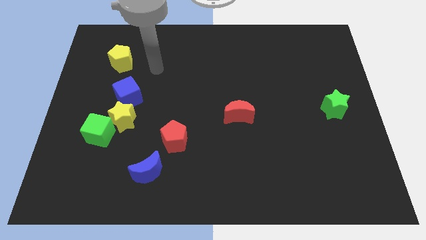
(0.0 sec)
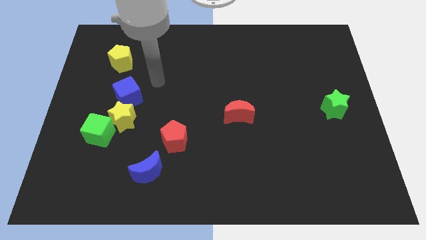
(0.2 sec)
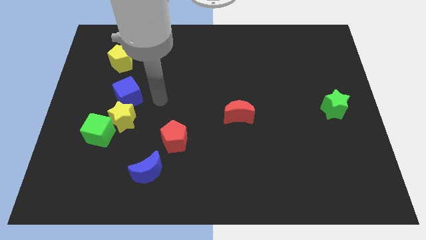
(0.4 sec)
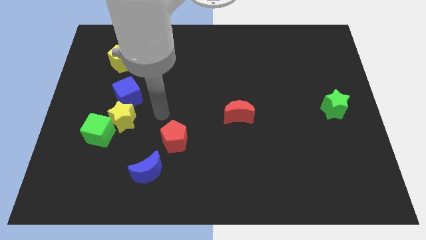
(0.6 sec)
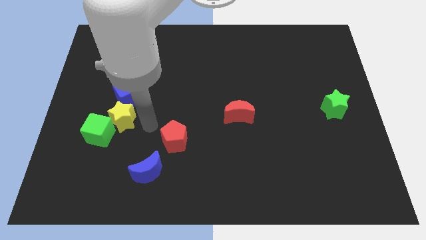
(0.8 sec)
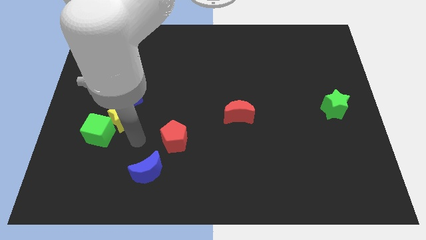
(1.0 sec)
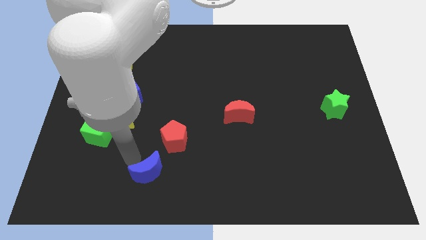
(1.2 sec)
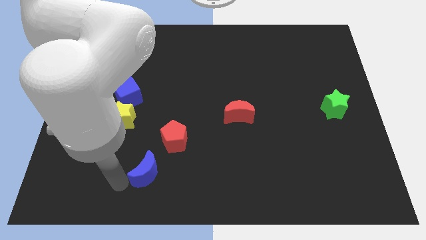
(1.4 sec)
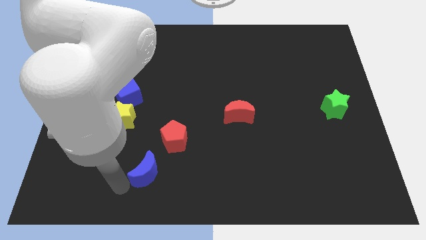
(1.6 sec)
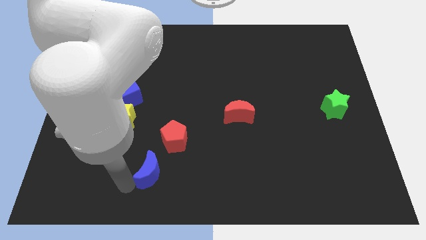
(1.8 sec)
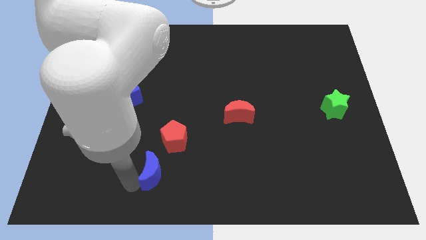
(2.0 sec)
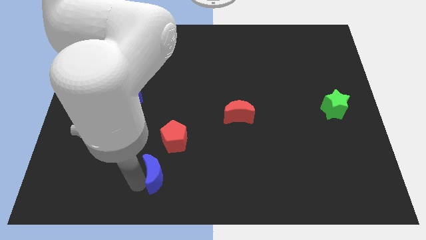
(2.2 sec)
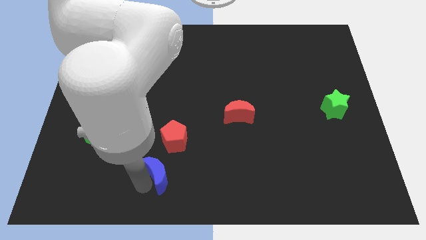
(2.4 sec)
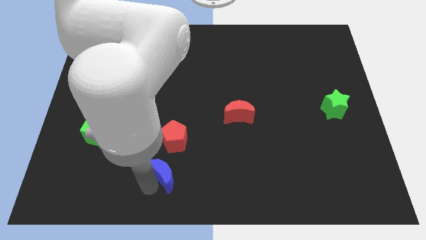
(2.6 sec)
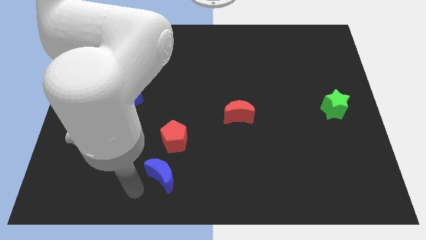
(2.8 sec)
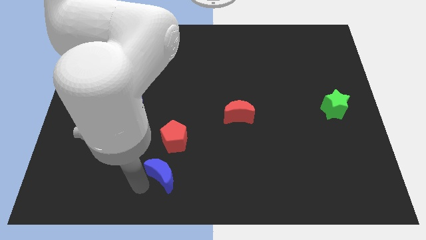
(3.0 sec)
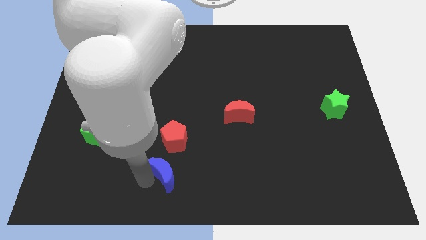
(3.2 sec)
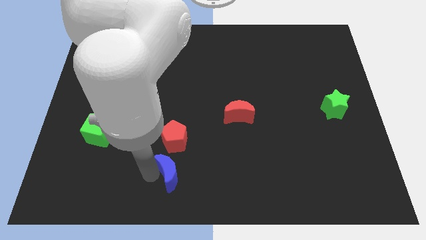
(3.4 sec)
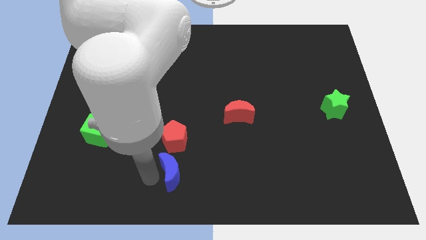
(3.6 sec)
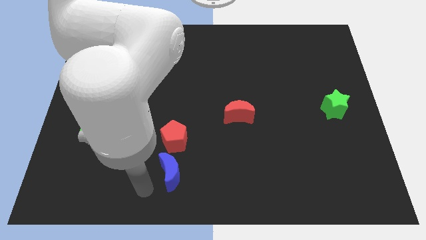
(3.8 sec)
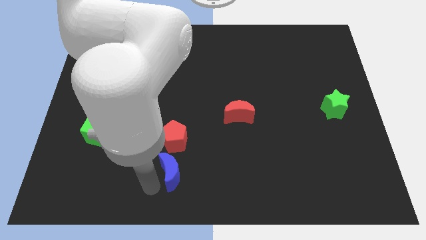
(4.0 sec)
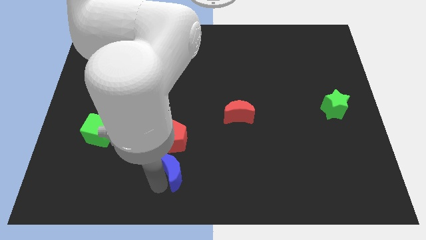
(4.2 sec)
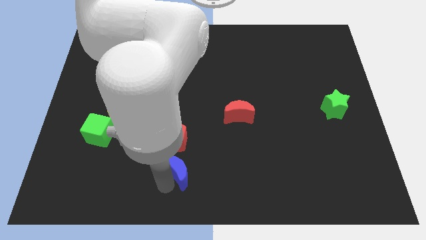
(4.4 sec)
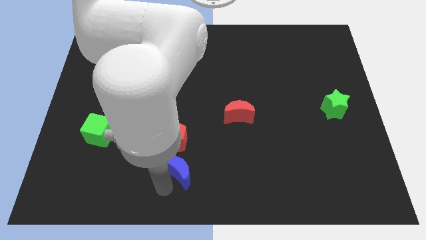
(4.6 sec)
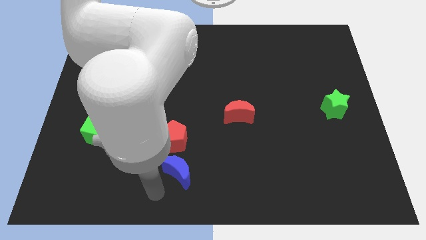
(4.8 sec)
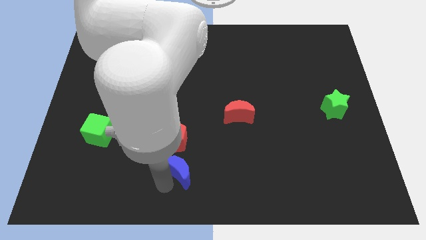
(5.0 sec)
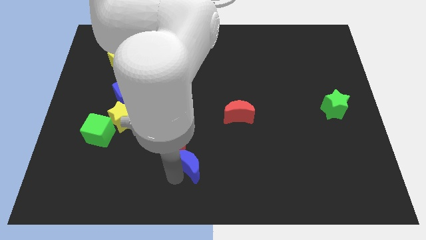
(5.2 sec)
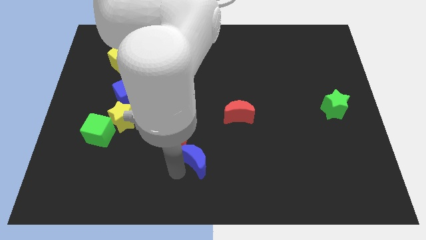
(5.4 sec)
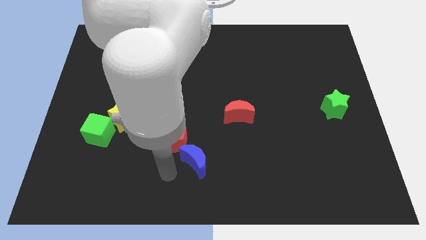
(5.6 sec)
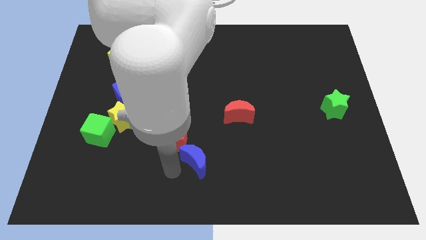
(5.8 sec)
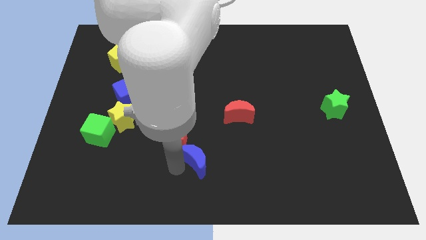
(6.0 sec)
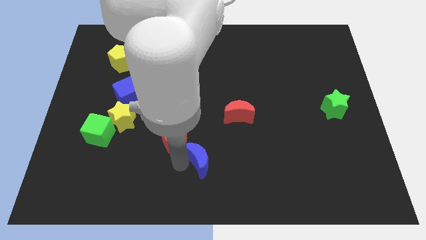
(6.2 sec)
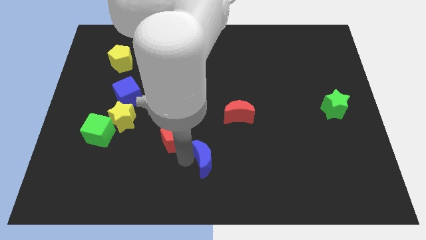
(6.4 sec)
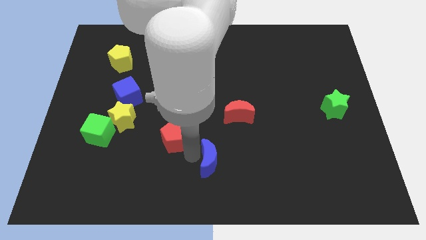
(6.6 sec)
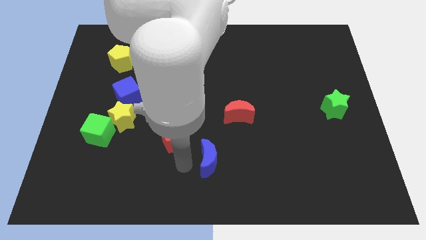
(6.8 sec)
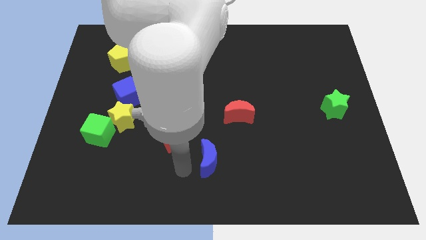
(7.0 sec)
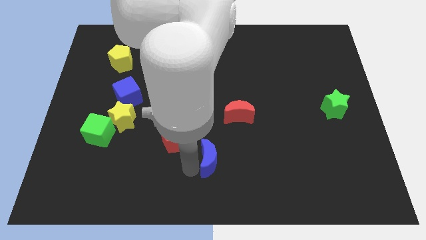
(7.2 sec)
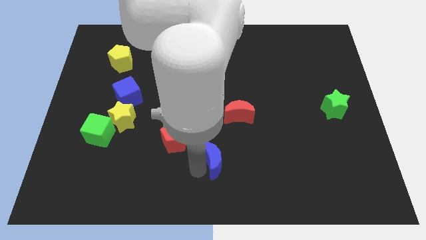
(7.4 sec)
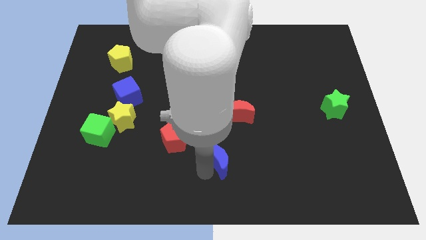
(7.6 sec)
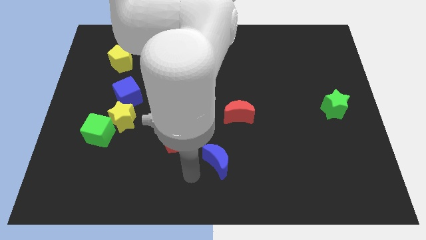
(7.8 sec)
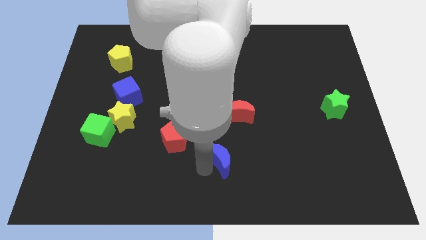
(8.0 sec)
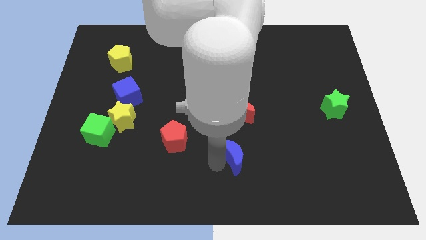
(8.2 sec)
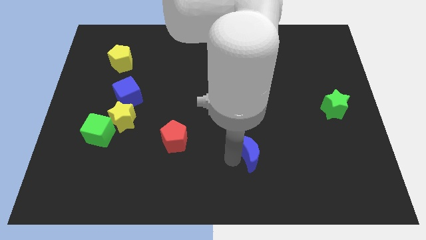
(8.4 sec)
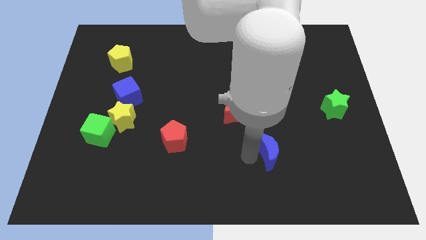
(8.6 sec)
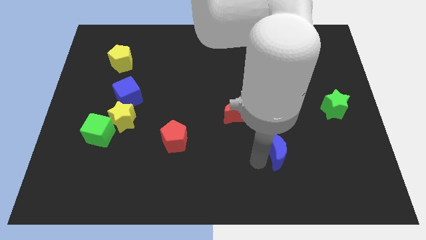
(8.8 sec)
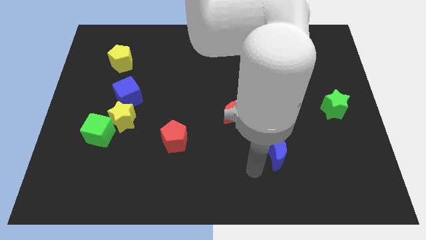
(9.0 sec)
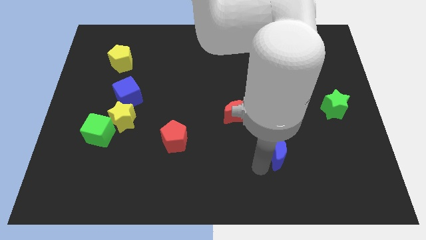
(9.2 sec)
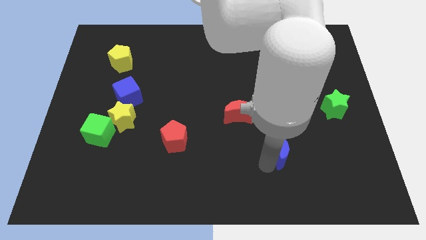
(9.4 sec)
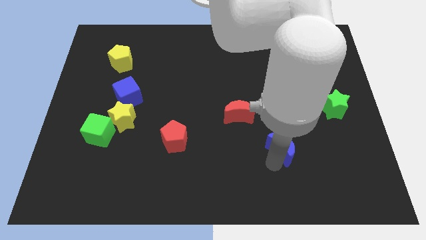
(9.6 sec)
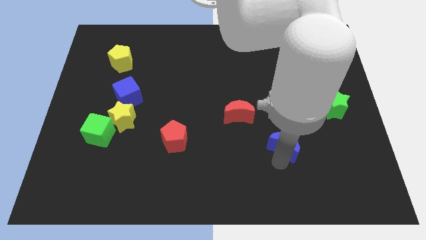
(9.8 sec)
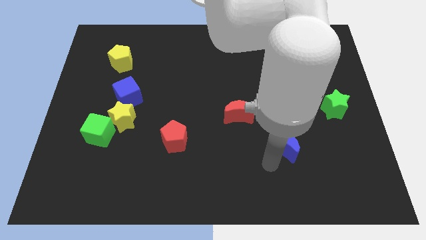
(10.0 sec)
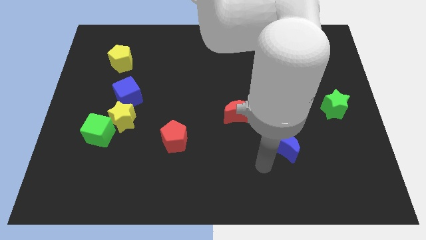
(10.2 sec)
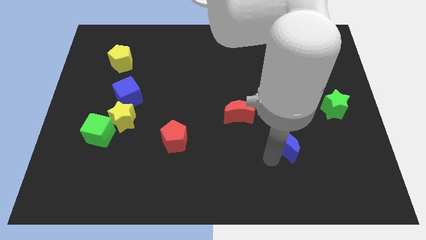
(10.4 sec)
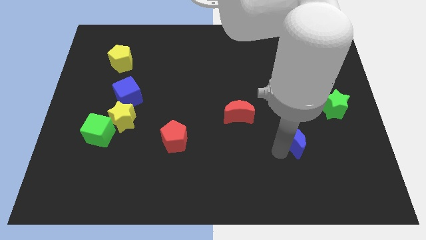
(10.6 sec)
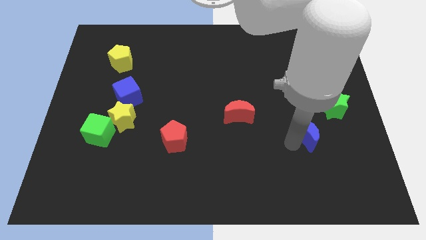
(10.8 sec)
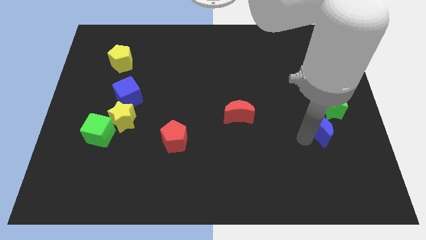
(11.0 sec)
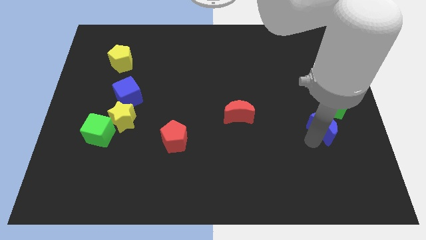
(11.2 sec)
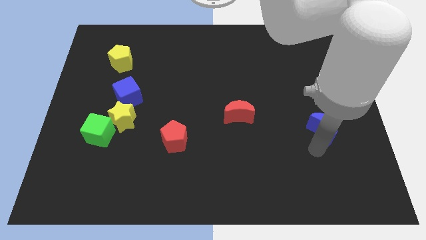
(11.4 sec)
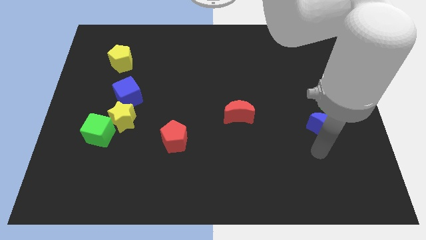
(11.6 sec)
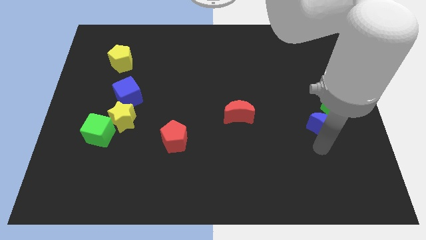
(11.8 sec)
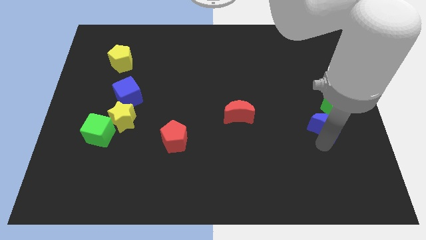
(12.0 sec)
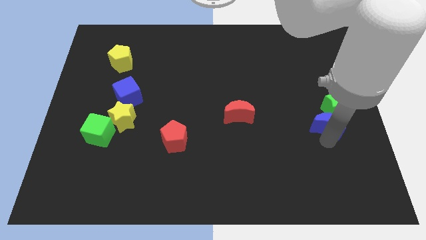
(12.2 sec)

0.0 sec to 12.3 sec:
slide the blue moon to the green star

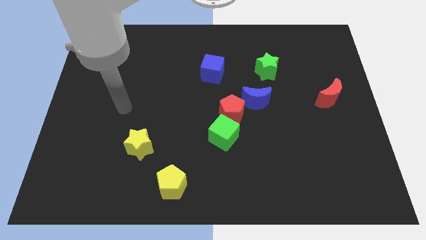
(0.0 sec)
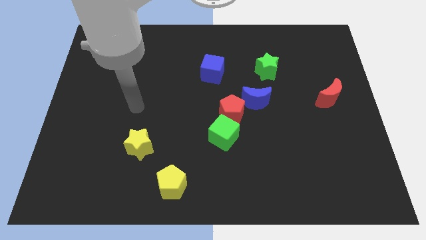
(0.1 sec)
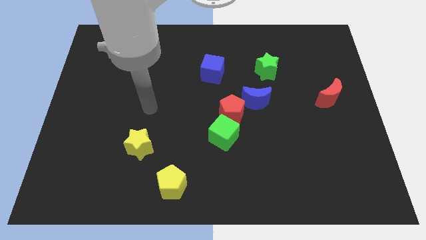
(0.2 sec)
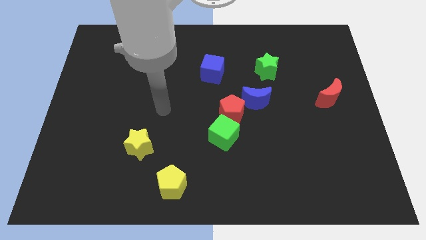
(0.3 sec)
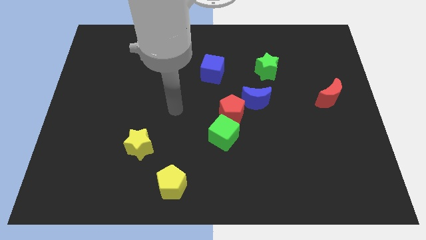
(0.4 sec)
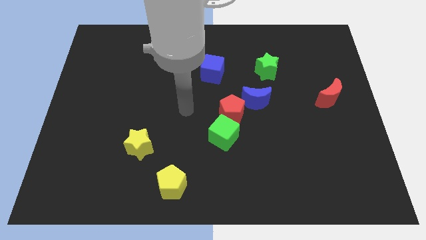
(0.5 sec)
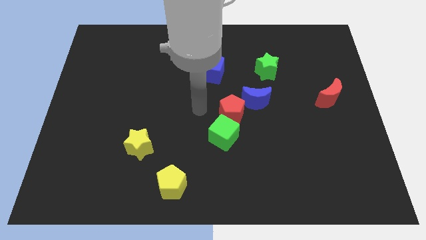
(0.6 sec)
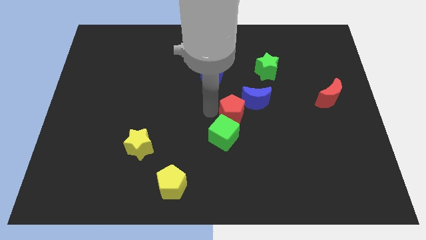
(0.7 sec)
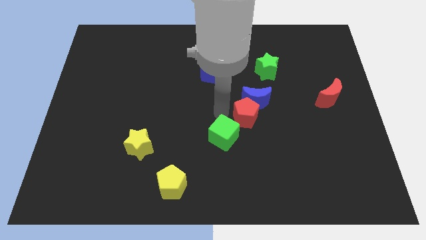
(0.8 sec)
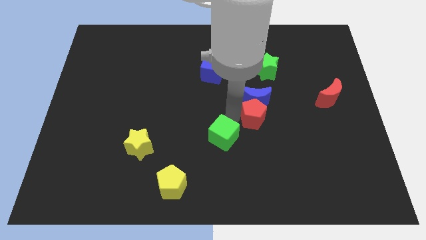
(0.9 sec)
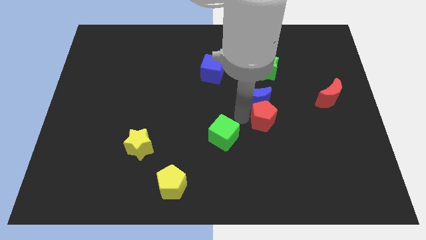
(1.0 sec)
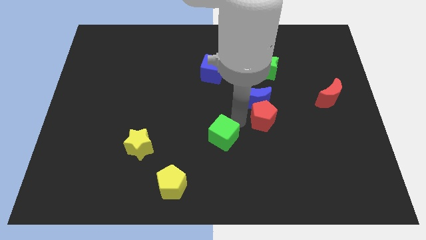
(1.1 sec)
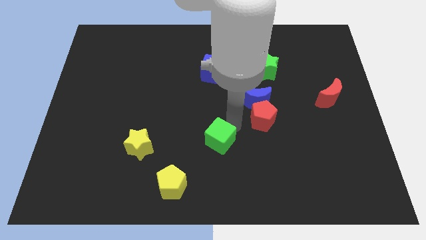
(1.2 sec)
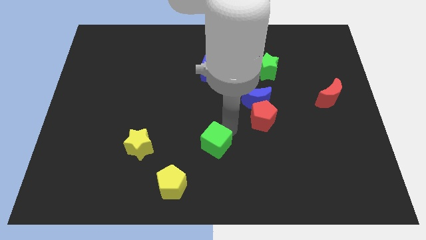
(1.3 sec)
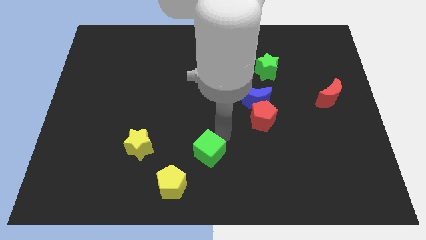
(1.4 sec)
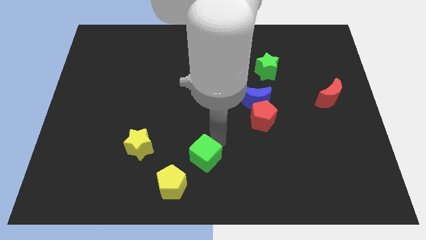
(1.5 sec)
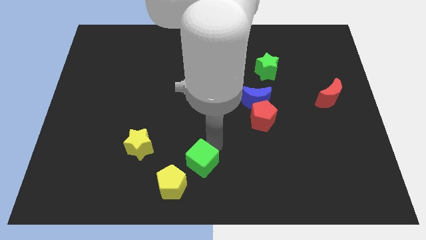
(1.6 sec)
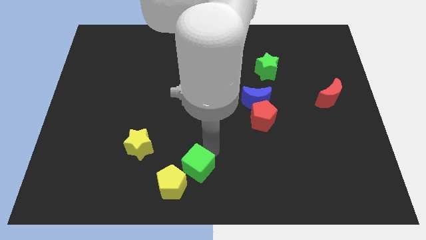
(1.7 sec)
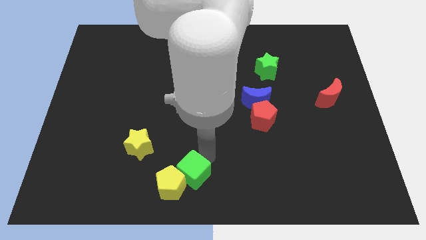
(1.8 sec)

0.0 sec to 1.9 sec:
move the green cube towards the yellow pentagon
